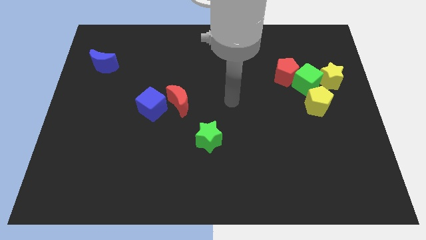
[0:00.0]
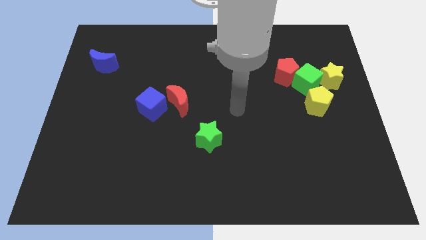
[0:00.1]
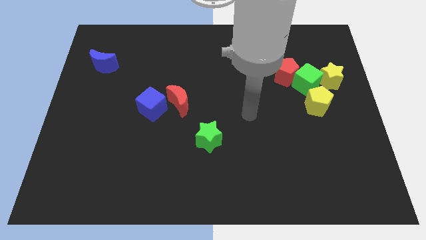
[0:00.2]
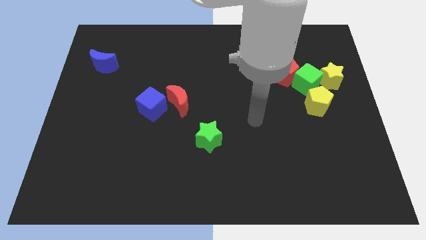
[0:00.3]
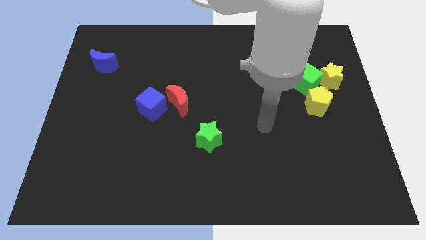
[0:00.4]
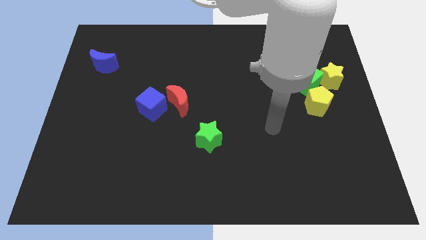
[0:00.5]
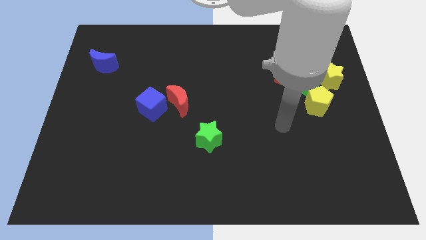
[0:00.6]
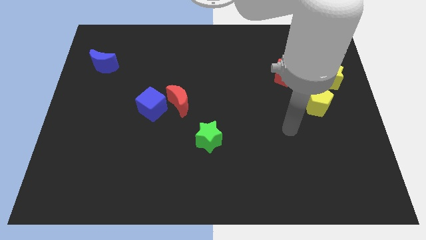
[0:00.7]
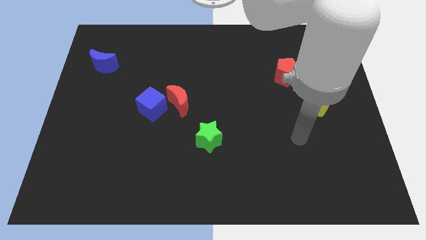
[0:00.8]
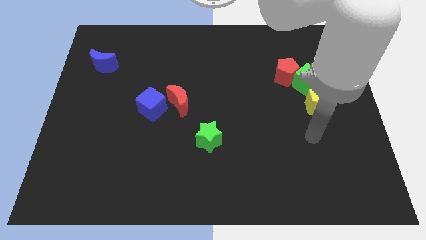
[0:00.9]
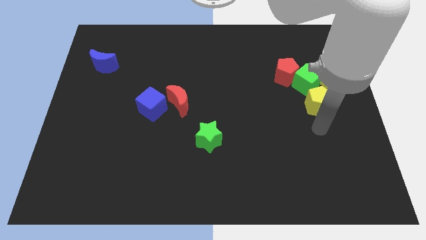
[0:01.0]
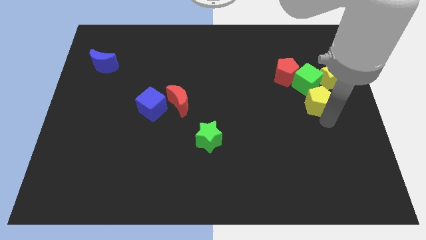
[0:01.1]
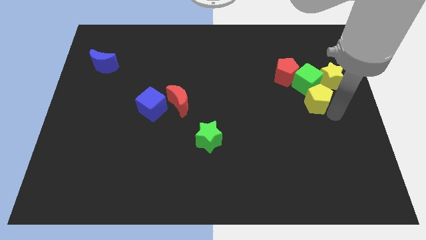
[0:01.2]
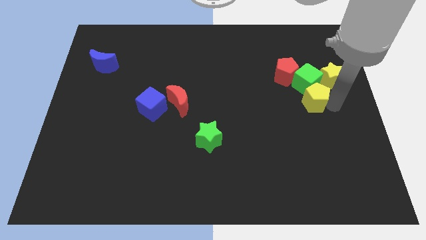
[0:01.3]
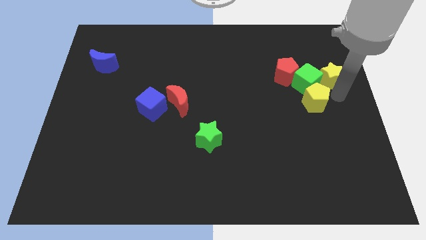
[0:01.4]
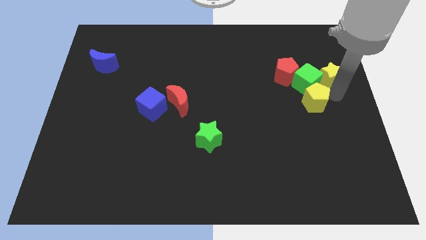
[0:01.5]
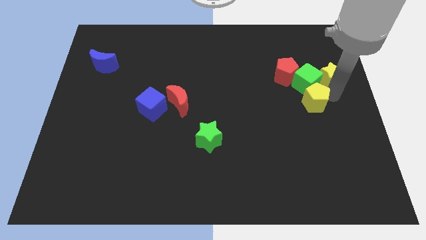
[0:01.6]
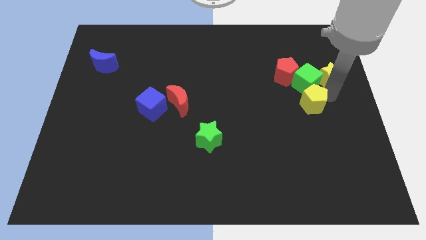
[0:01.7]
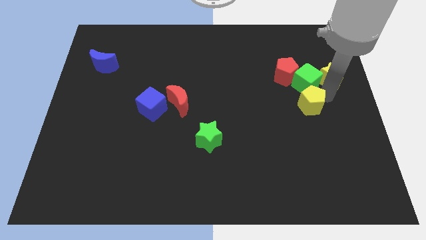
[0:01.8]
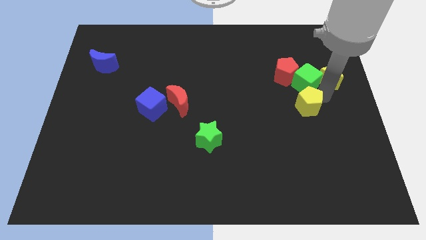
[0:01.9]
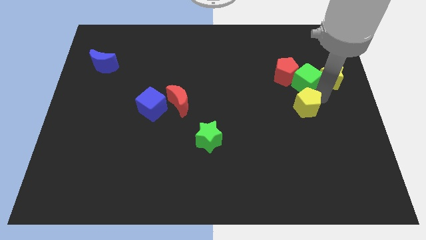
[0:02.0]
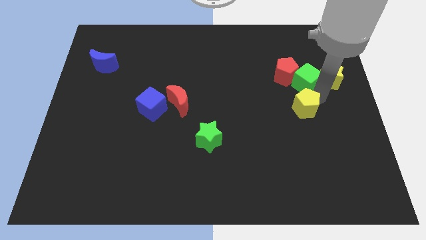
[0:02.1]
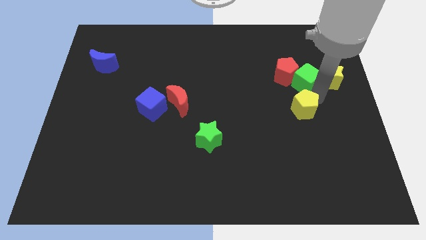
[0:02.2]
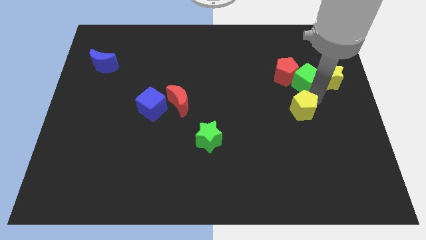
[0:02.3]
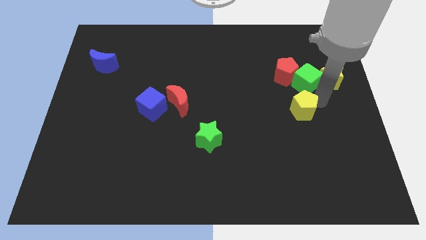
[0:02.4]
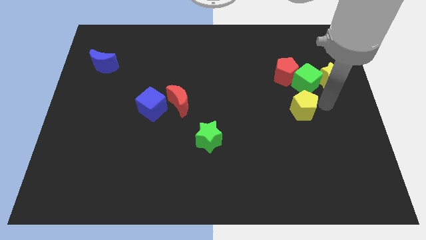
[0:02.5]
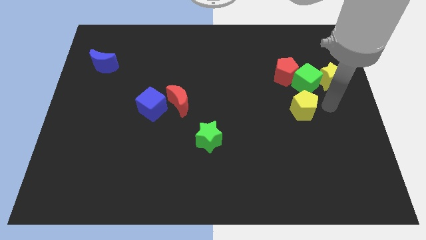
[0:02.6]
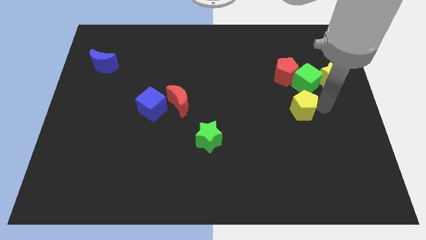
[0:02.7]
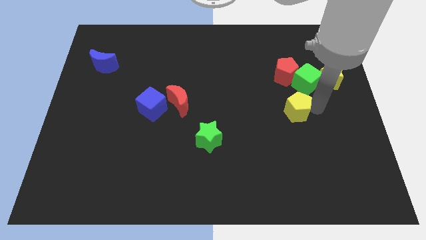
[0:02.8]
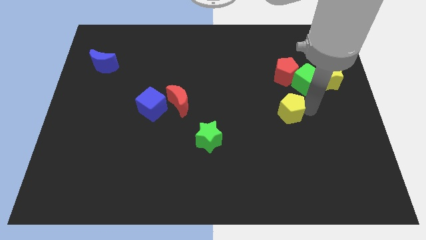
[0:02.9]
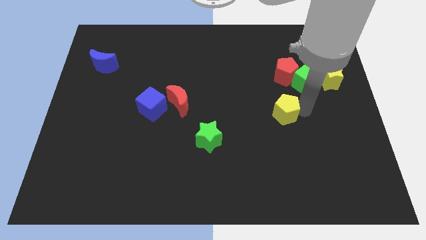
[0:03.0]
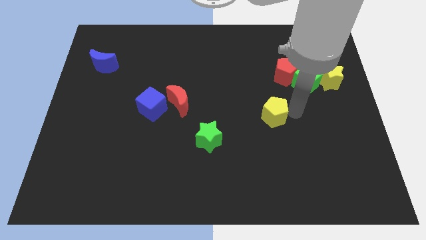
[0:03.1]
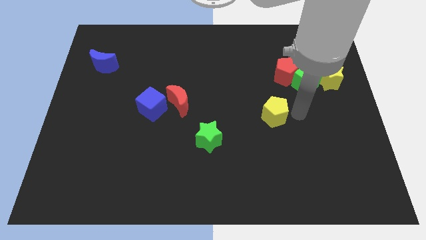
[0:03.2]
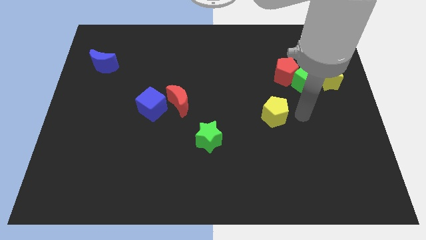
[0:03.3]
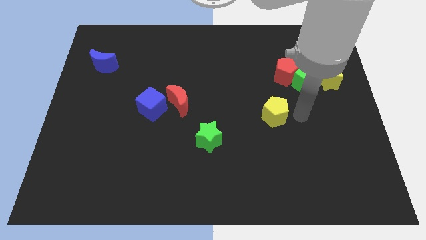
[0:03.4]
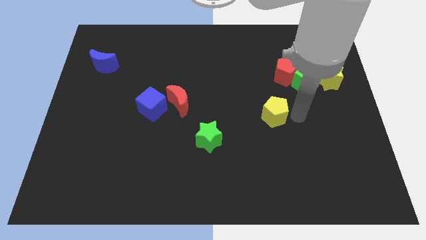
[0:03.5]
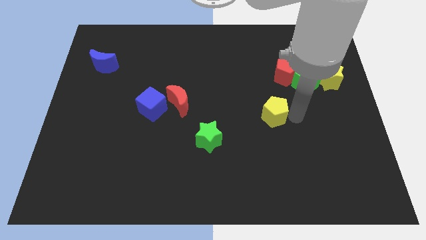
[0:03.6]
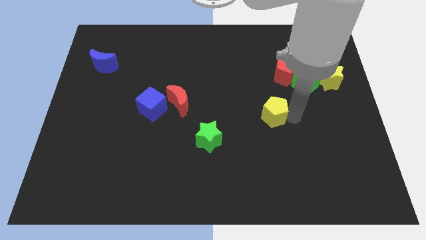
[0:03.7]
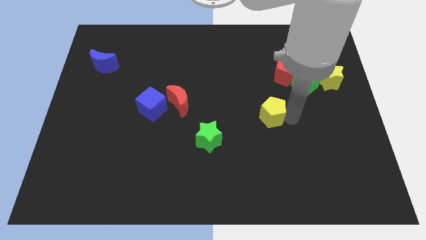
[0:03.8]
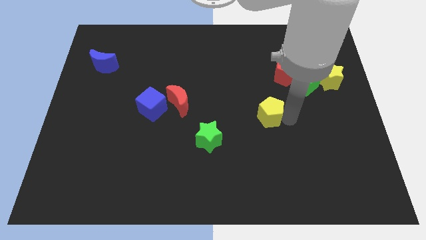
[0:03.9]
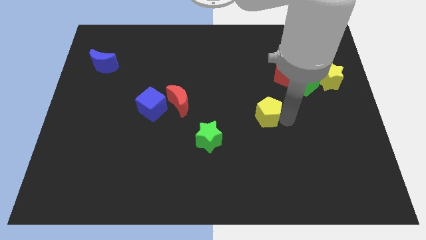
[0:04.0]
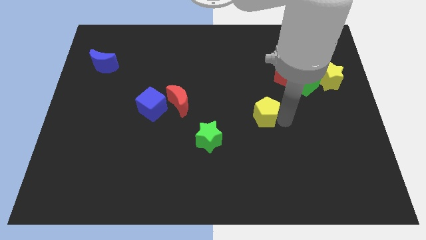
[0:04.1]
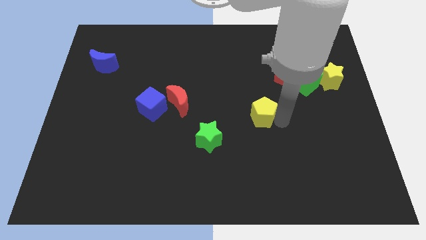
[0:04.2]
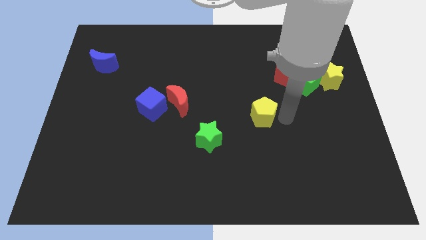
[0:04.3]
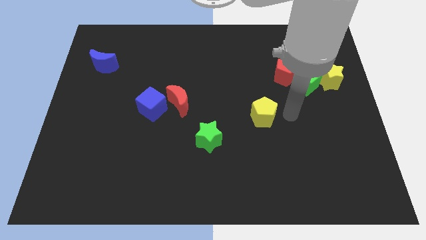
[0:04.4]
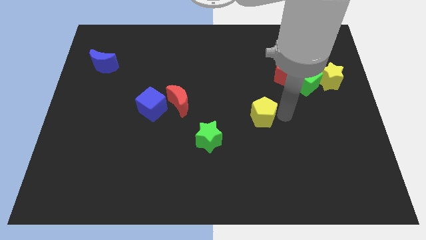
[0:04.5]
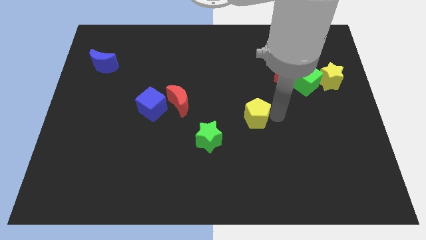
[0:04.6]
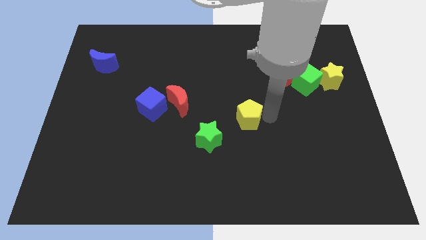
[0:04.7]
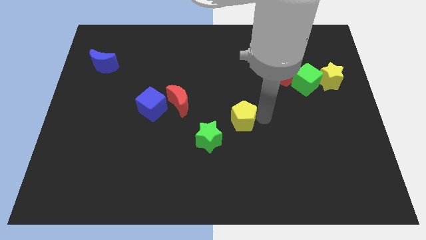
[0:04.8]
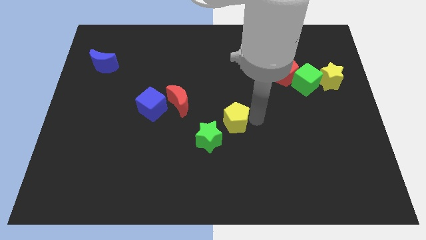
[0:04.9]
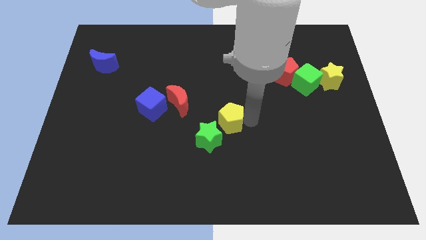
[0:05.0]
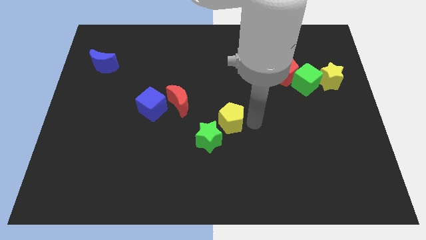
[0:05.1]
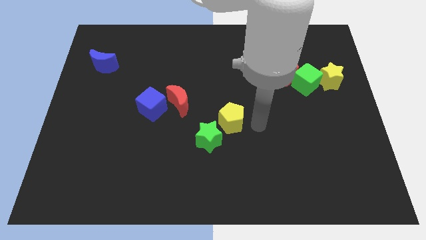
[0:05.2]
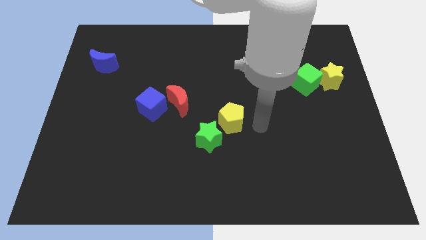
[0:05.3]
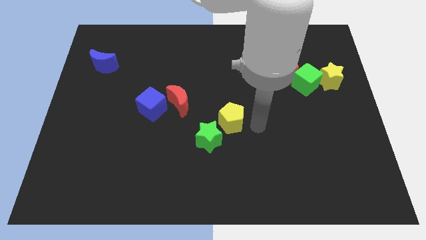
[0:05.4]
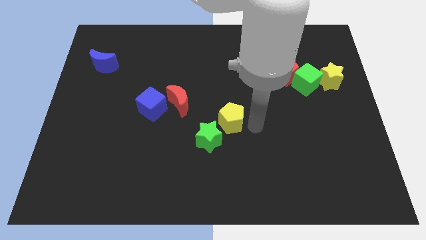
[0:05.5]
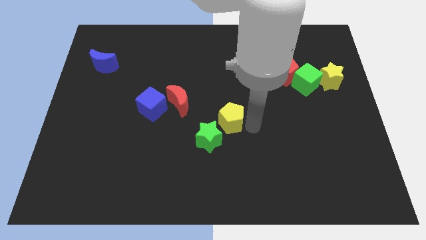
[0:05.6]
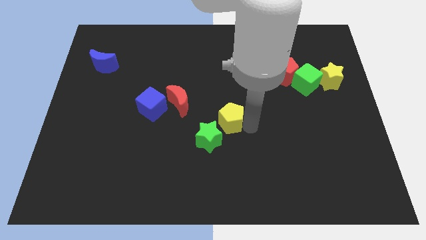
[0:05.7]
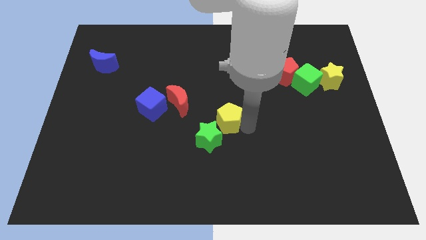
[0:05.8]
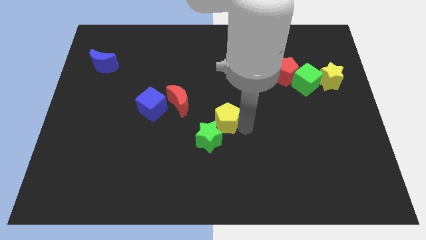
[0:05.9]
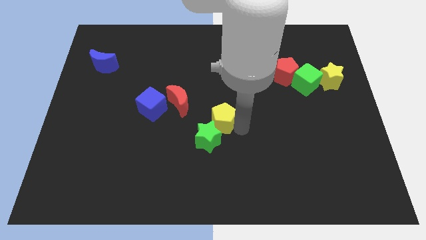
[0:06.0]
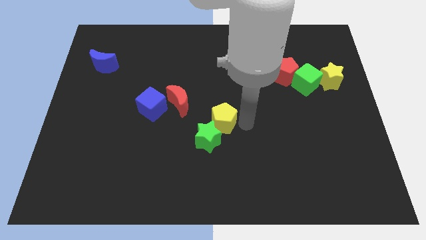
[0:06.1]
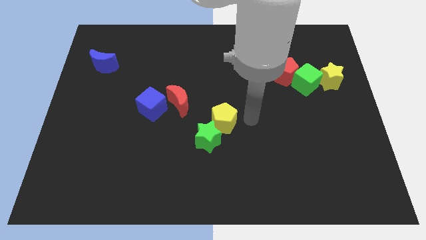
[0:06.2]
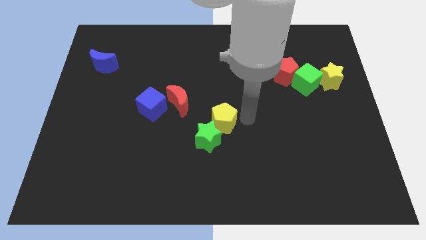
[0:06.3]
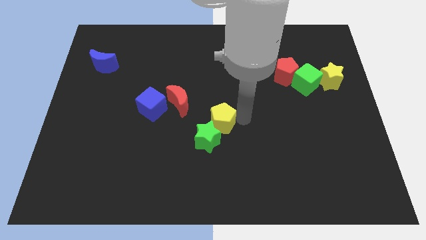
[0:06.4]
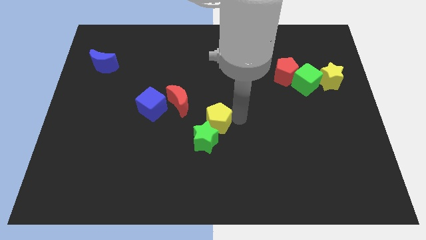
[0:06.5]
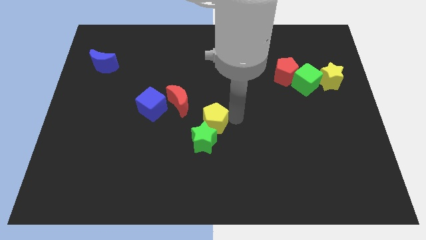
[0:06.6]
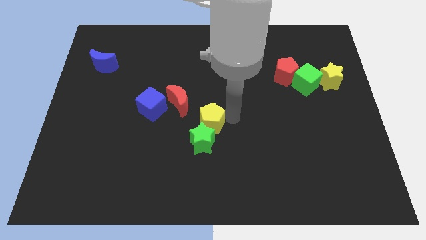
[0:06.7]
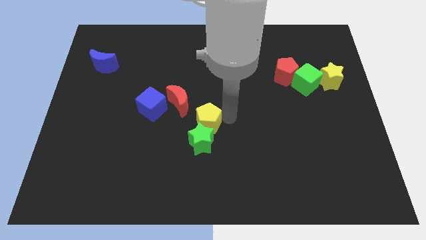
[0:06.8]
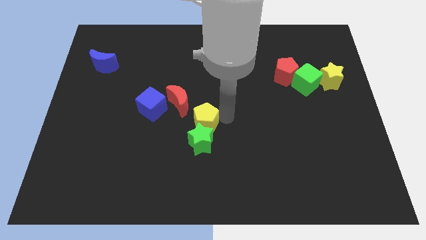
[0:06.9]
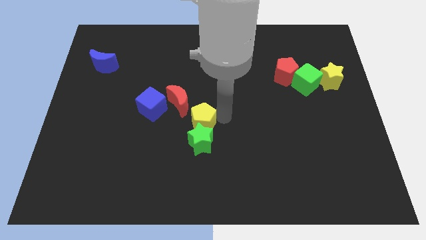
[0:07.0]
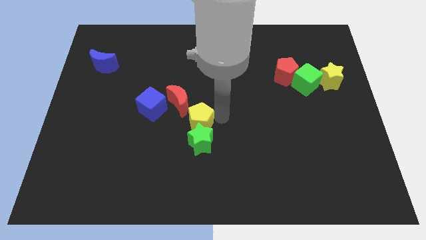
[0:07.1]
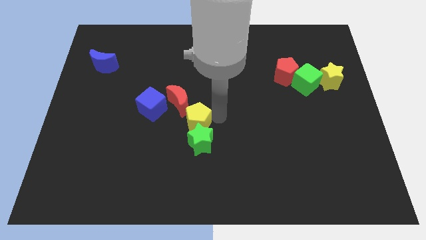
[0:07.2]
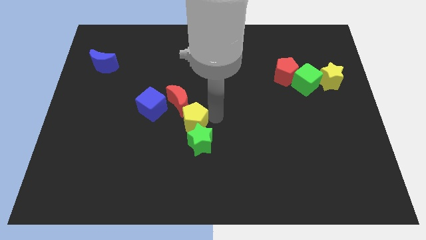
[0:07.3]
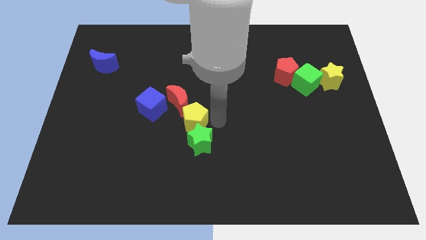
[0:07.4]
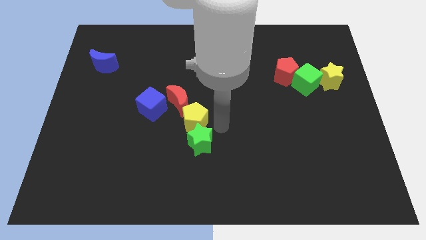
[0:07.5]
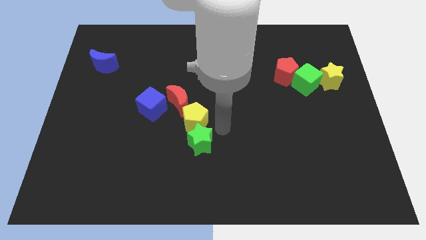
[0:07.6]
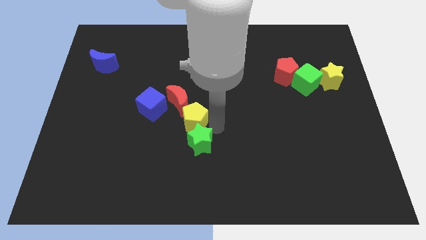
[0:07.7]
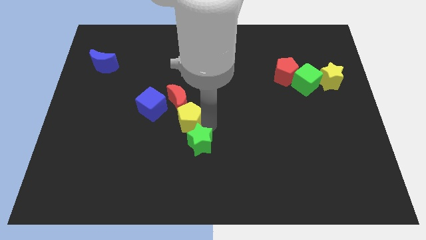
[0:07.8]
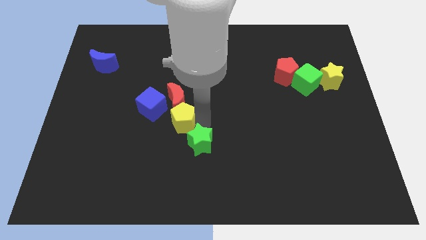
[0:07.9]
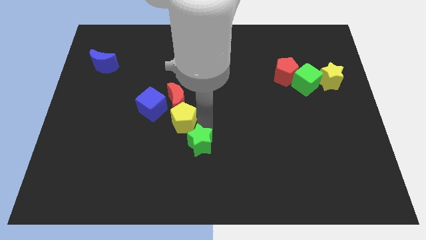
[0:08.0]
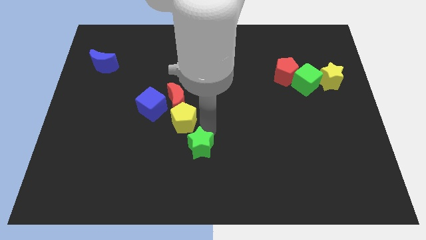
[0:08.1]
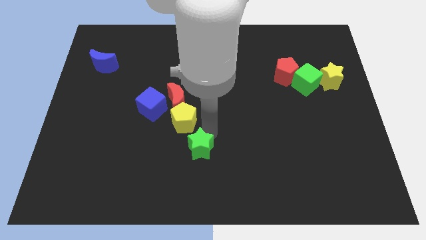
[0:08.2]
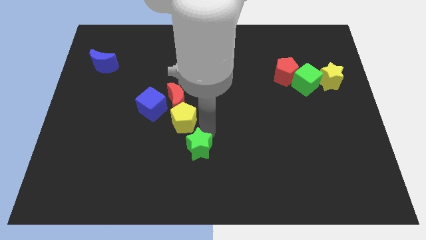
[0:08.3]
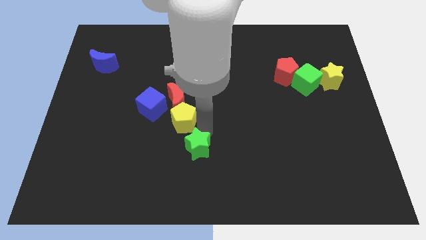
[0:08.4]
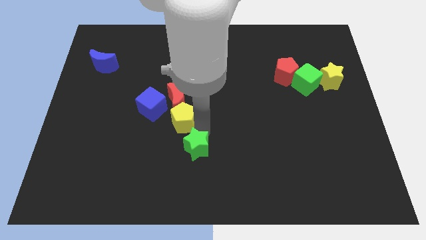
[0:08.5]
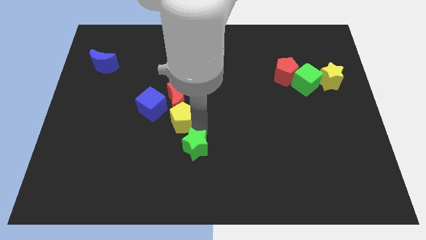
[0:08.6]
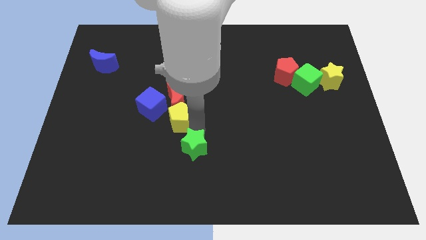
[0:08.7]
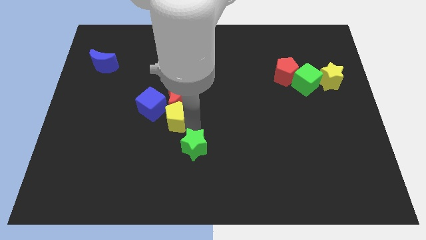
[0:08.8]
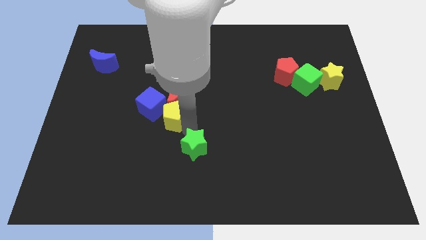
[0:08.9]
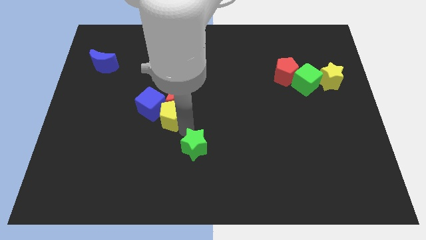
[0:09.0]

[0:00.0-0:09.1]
move the yellow pentagon to the blue cube
